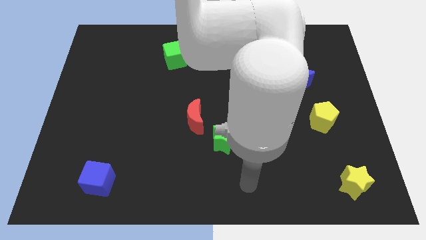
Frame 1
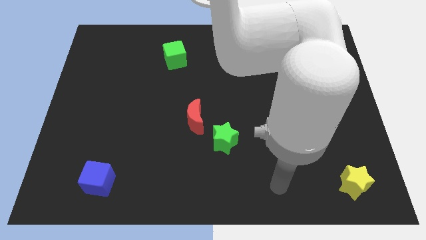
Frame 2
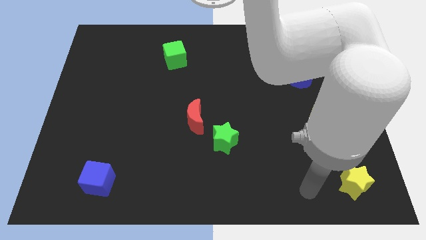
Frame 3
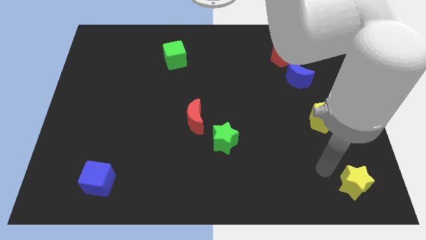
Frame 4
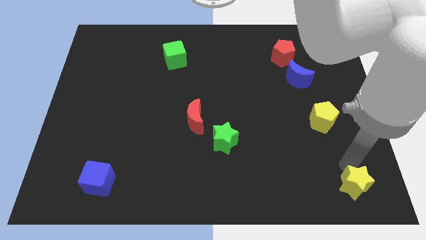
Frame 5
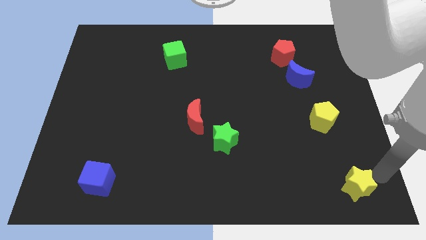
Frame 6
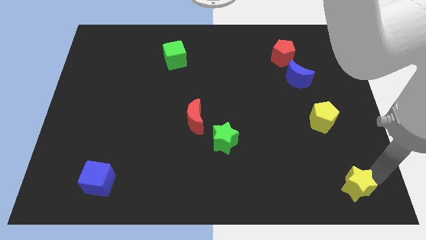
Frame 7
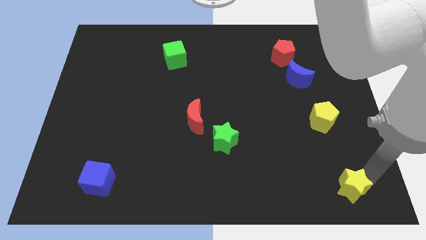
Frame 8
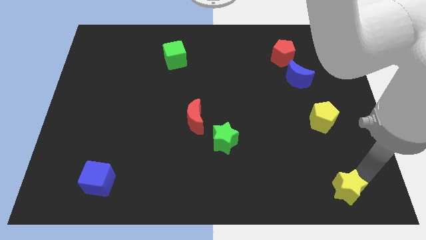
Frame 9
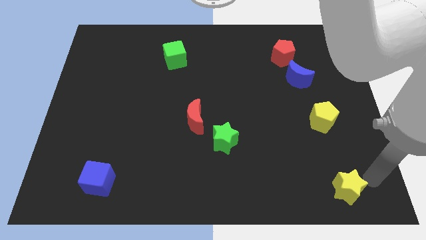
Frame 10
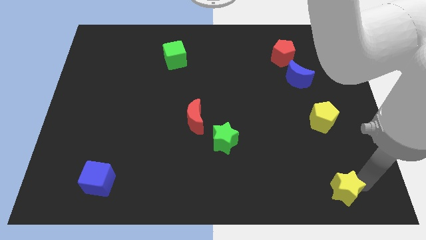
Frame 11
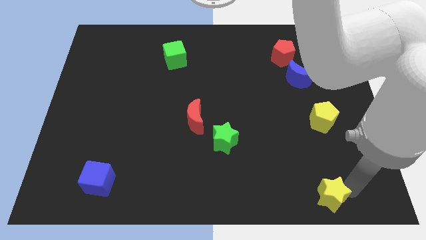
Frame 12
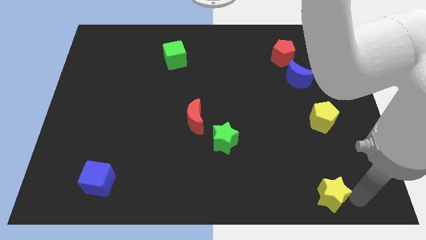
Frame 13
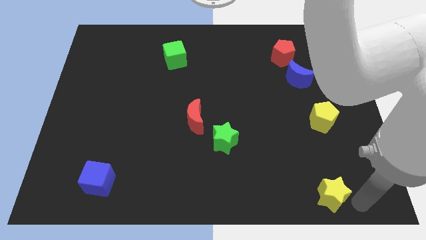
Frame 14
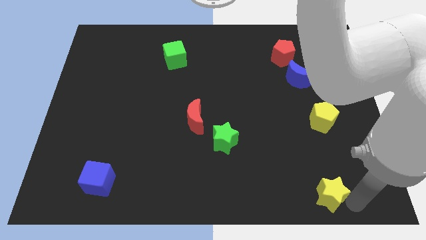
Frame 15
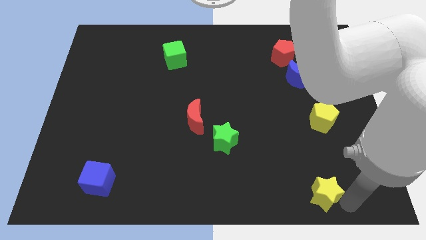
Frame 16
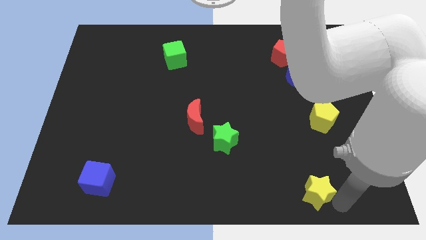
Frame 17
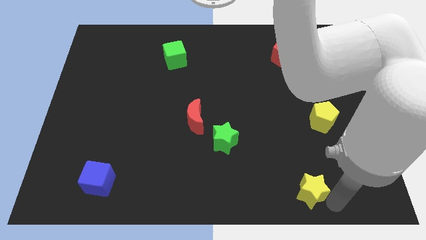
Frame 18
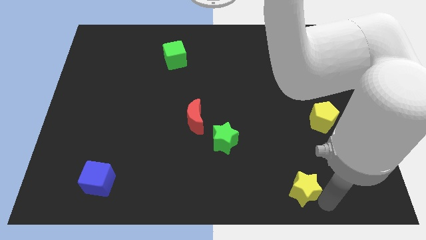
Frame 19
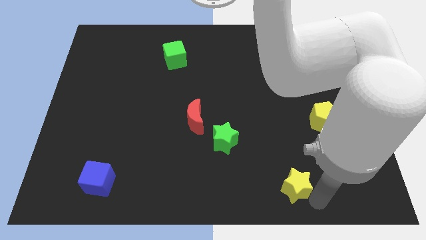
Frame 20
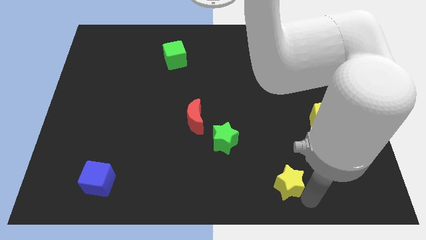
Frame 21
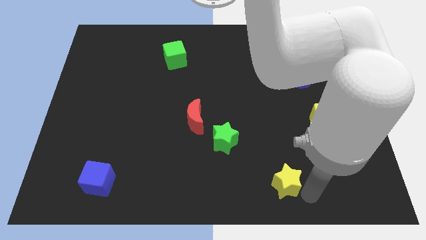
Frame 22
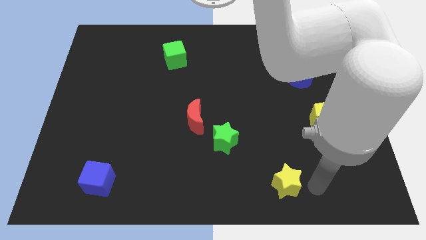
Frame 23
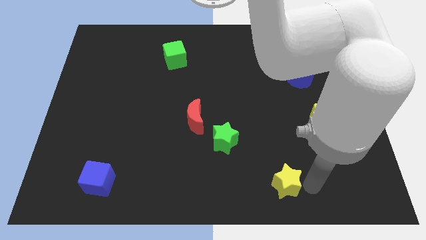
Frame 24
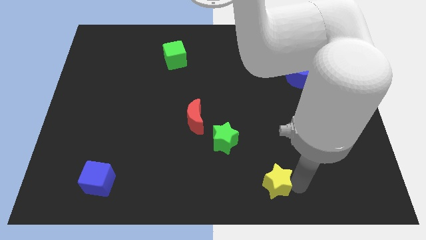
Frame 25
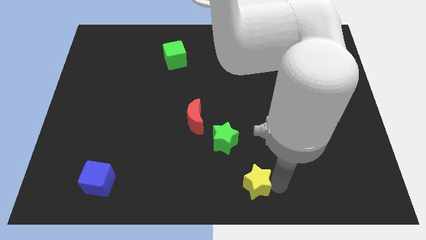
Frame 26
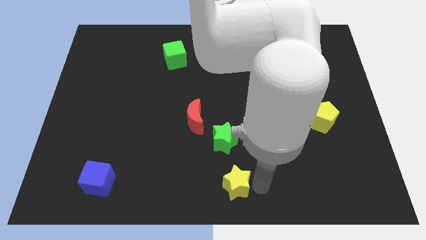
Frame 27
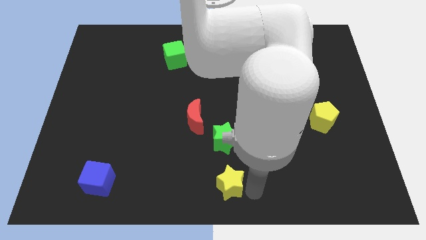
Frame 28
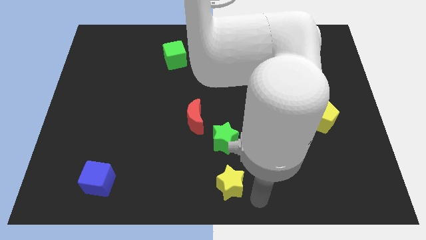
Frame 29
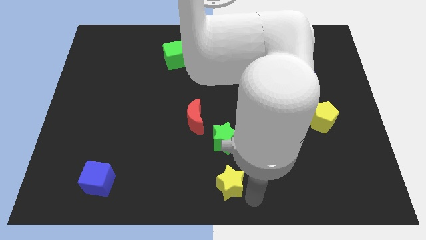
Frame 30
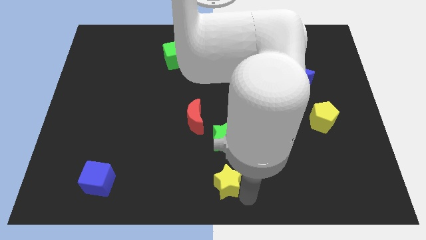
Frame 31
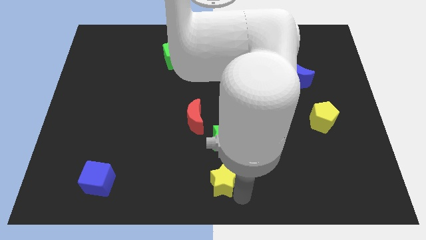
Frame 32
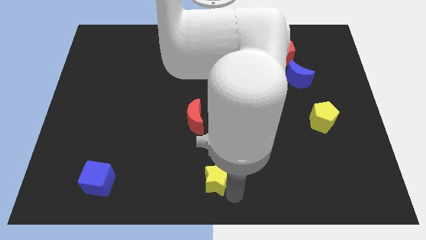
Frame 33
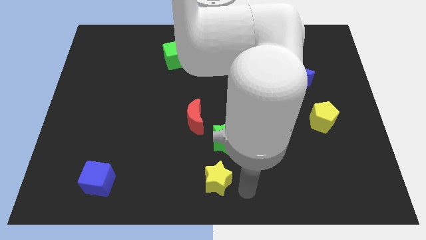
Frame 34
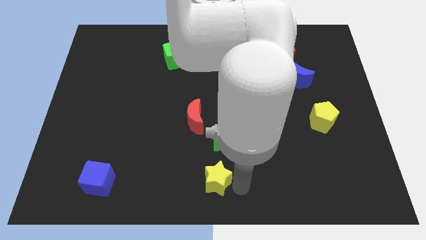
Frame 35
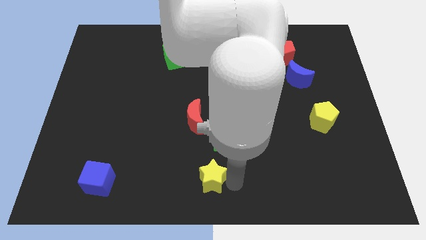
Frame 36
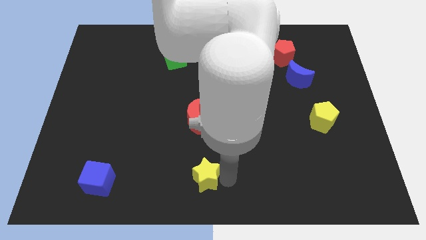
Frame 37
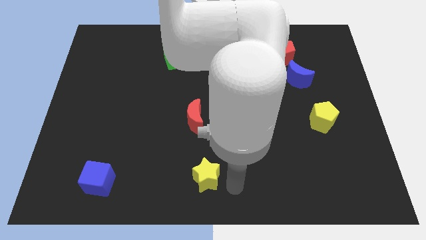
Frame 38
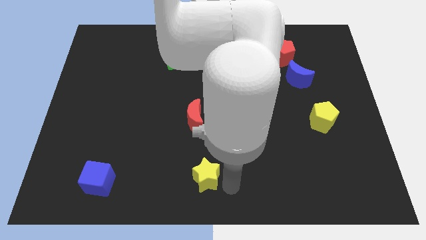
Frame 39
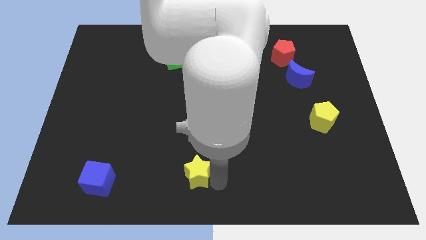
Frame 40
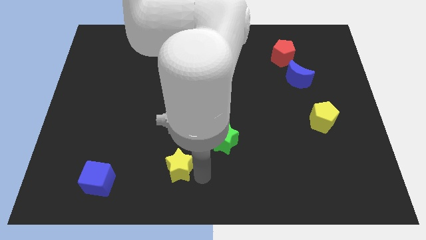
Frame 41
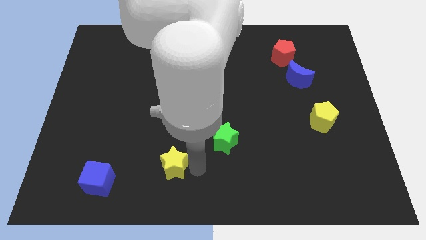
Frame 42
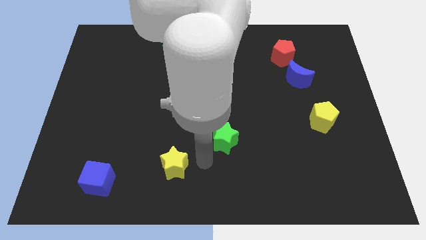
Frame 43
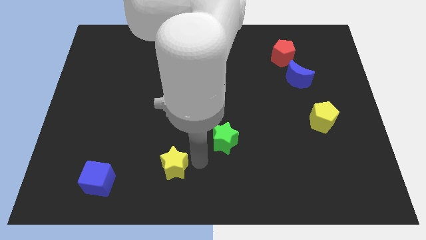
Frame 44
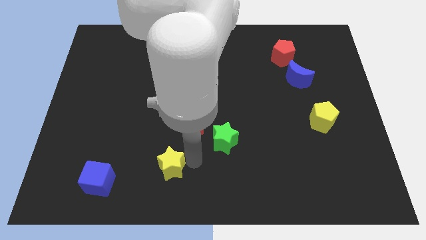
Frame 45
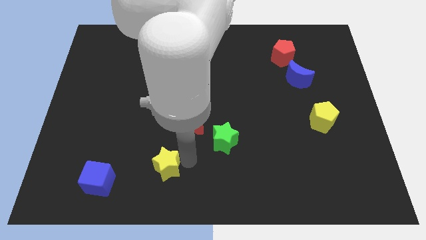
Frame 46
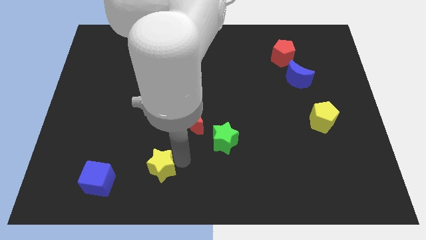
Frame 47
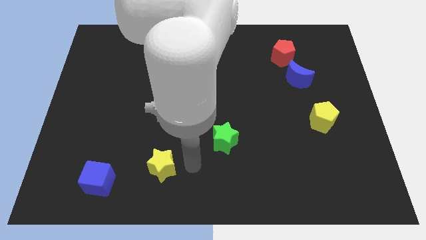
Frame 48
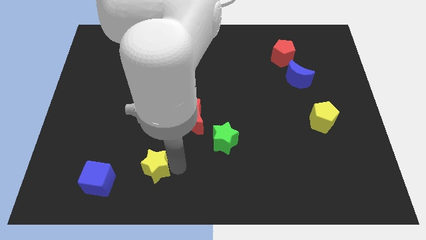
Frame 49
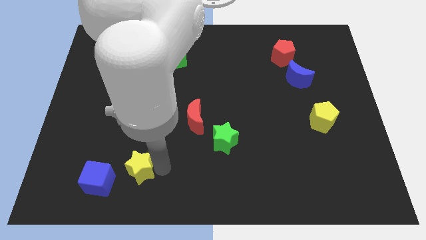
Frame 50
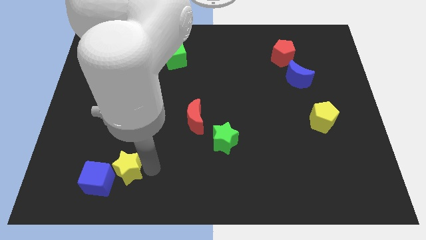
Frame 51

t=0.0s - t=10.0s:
put the yellow star next to the blue cube

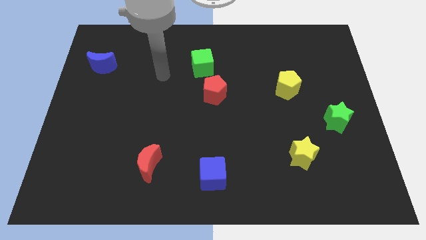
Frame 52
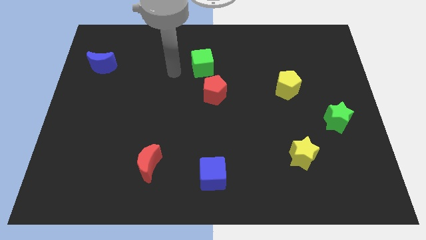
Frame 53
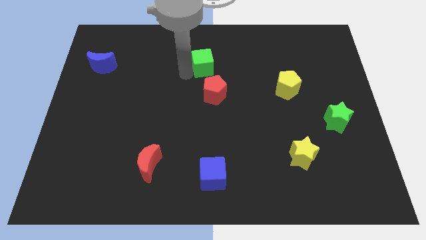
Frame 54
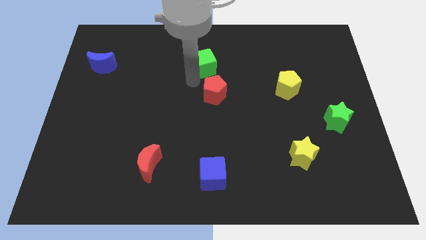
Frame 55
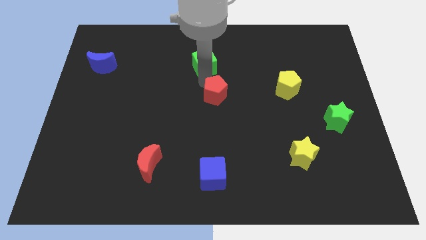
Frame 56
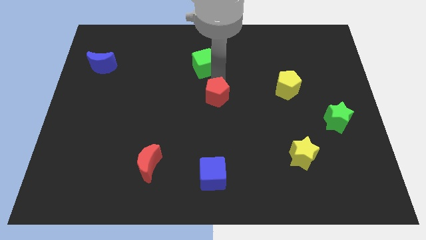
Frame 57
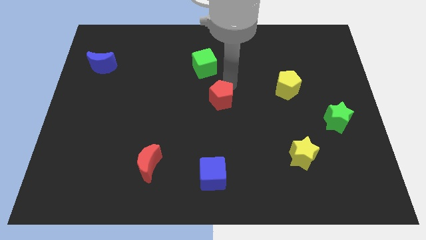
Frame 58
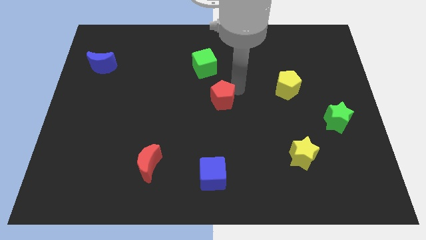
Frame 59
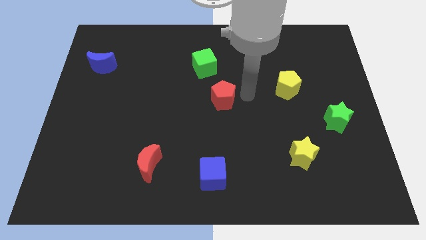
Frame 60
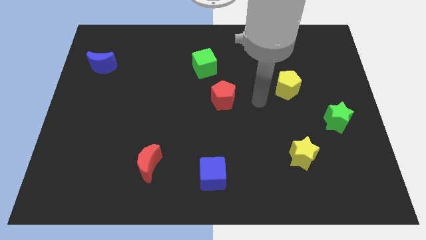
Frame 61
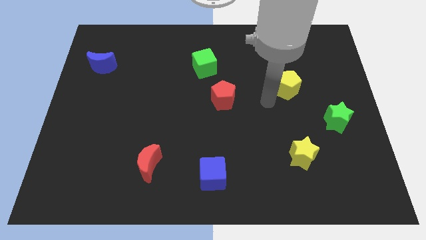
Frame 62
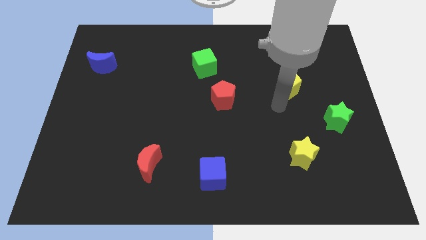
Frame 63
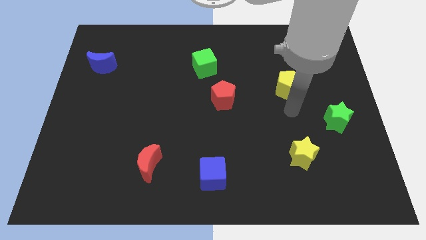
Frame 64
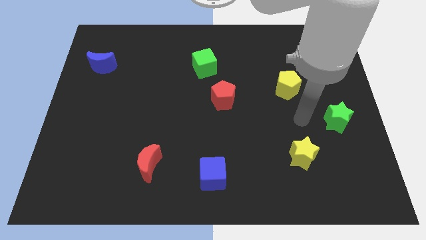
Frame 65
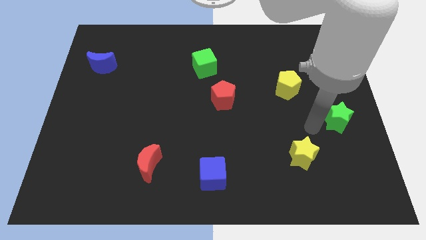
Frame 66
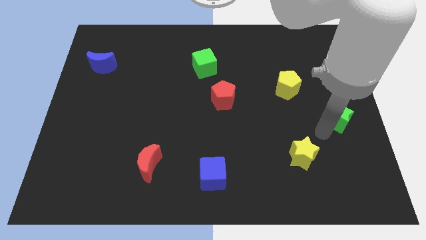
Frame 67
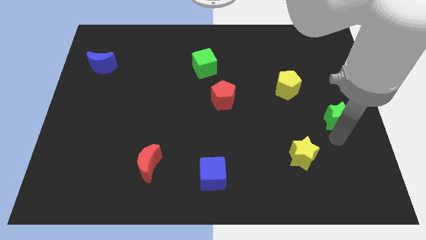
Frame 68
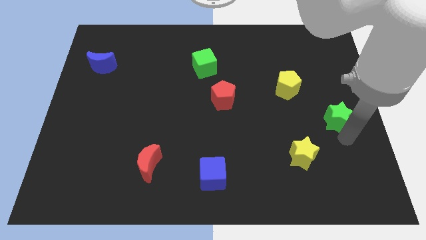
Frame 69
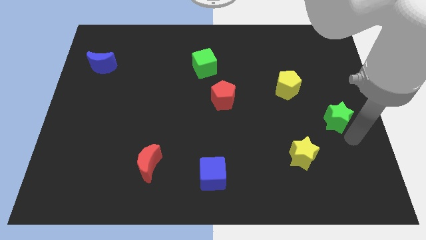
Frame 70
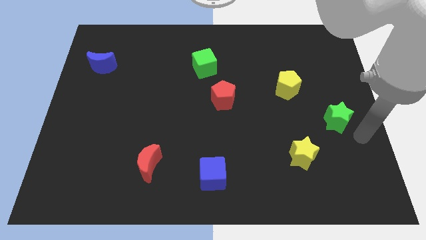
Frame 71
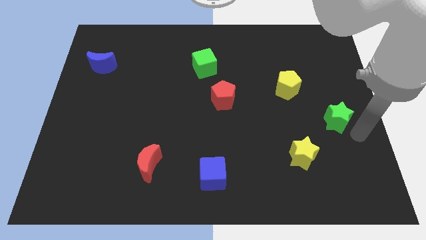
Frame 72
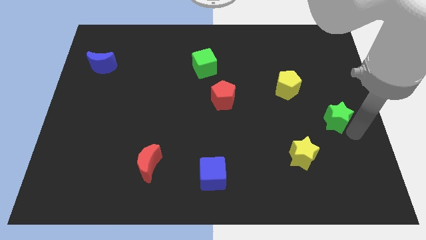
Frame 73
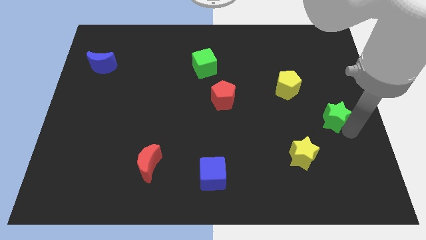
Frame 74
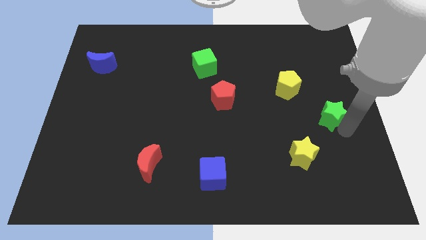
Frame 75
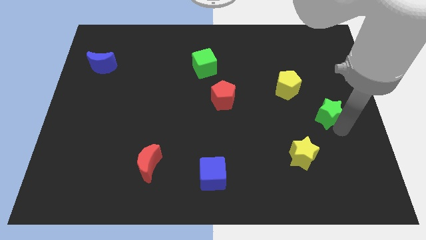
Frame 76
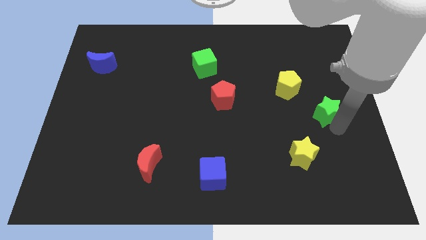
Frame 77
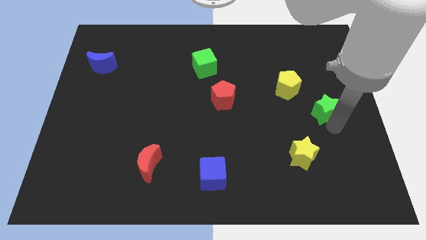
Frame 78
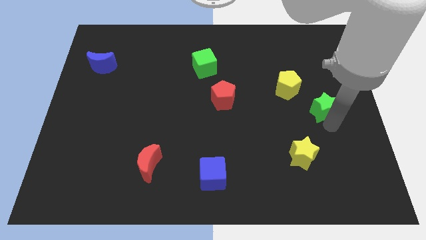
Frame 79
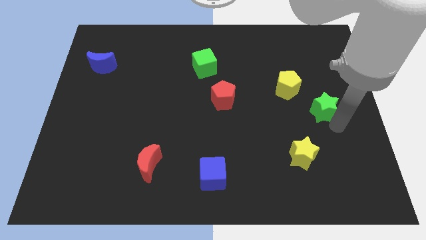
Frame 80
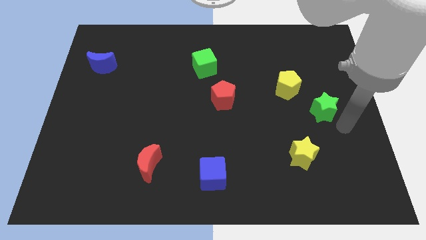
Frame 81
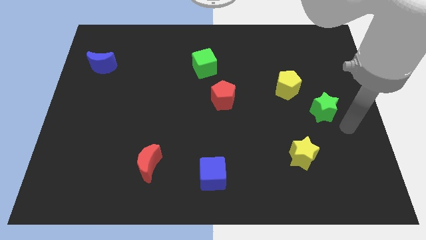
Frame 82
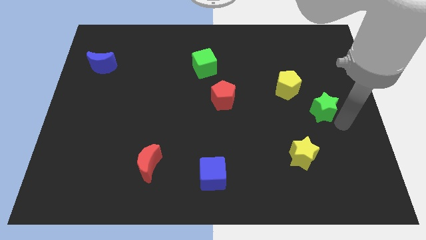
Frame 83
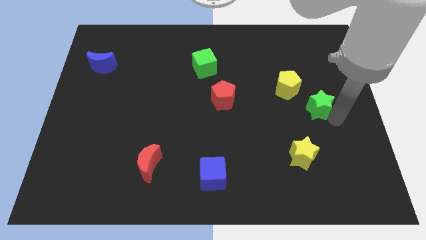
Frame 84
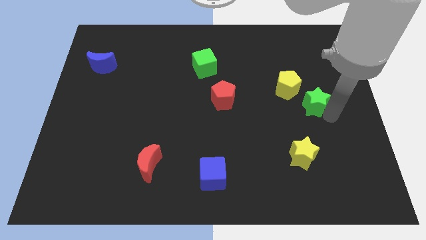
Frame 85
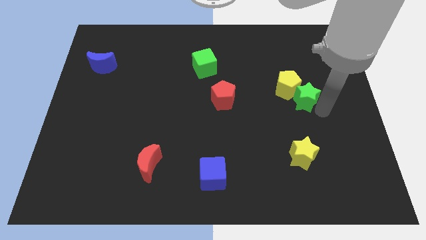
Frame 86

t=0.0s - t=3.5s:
move the green star close to the yellow pentagon

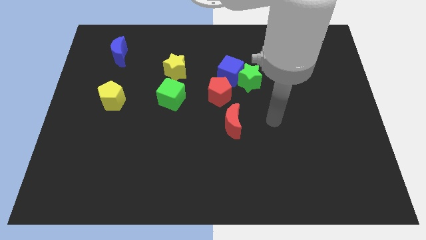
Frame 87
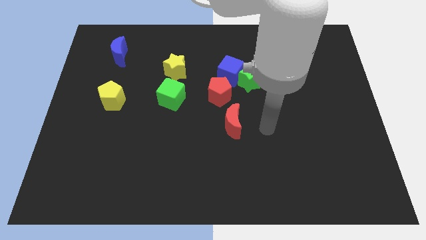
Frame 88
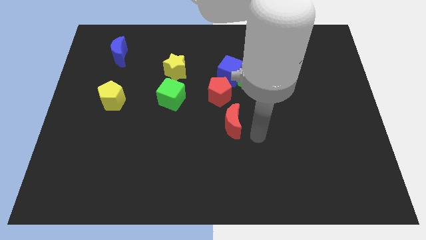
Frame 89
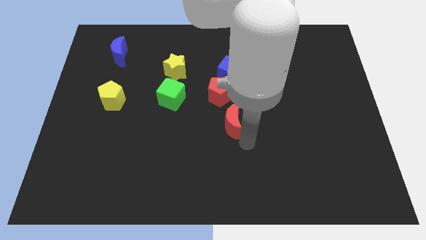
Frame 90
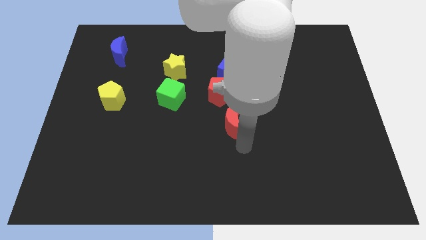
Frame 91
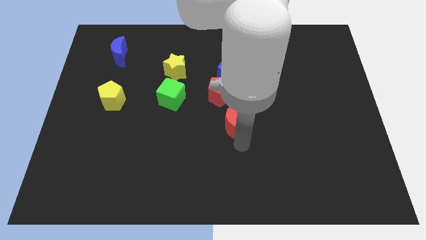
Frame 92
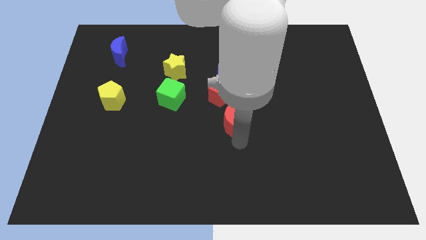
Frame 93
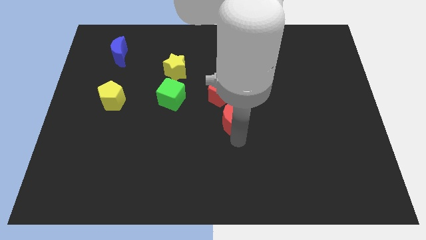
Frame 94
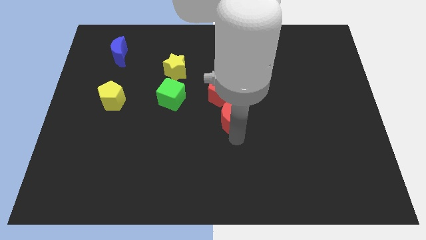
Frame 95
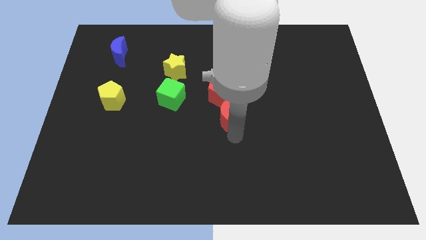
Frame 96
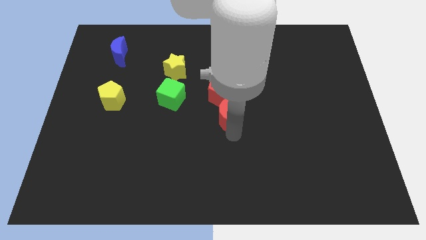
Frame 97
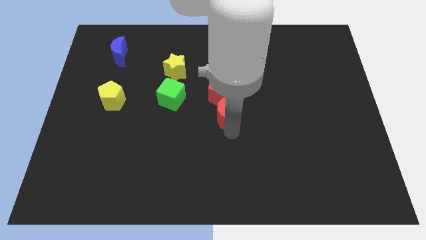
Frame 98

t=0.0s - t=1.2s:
put the red moon close to the red pentagon
